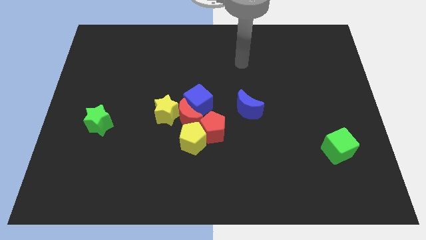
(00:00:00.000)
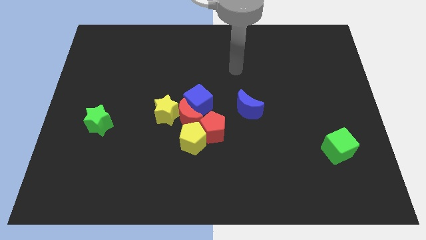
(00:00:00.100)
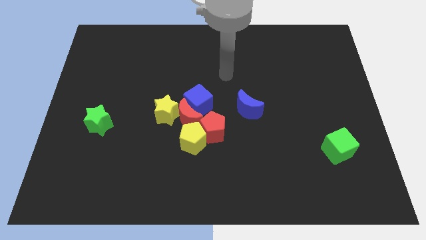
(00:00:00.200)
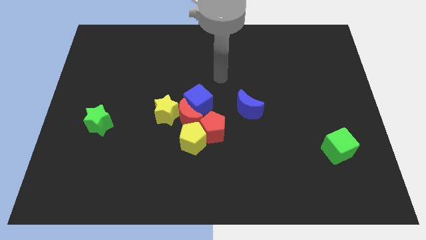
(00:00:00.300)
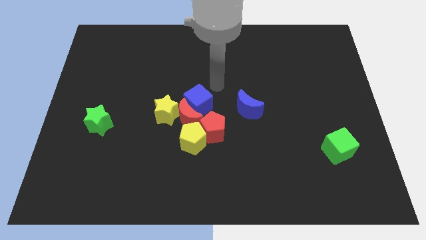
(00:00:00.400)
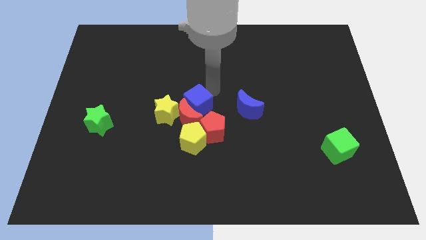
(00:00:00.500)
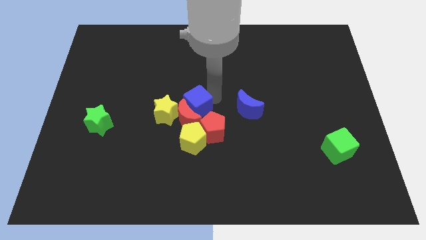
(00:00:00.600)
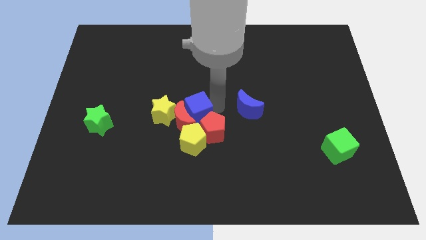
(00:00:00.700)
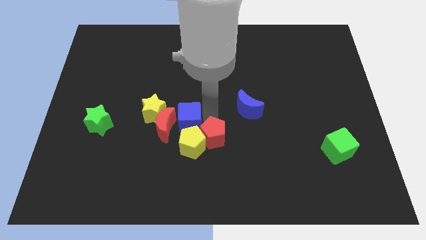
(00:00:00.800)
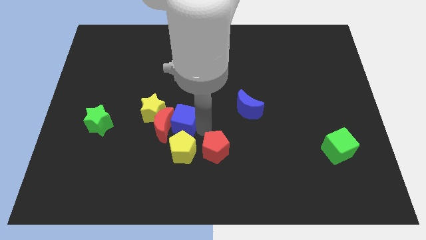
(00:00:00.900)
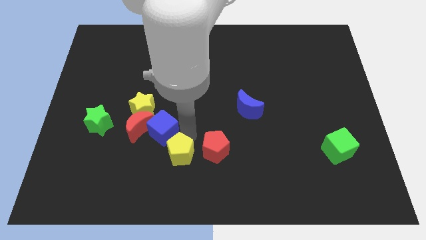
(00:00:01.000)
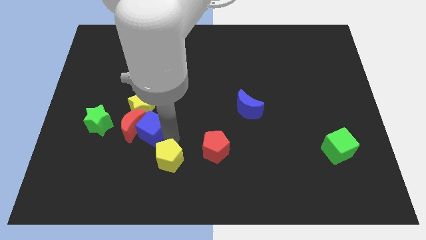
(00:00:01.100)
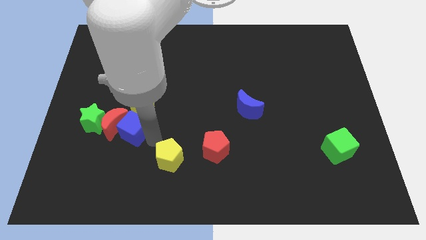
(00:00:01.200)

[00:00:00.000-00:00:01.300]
separate the red moon from the group of blocks

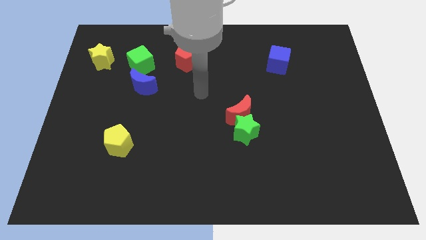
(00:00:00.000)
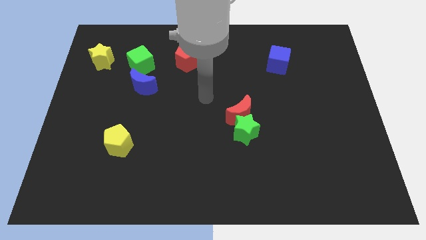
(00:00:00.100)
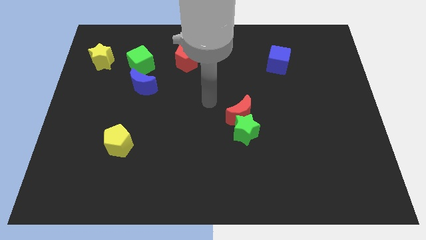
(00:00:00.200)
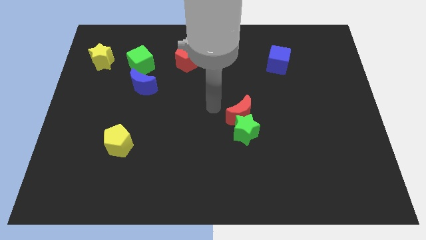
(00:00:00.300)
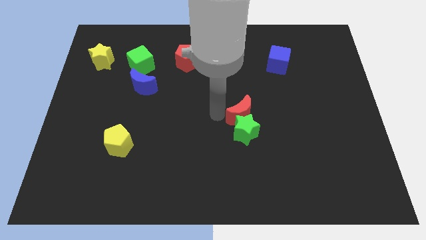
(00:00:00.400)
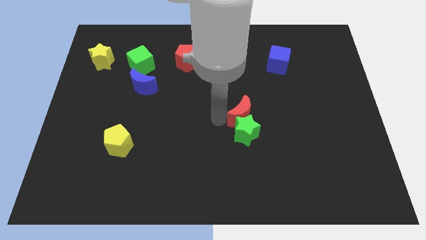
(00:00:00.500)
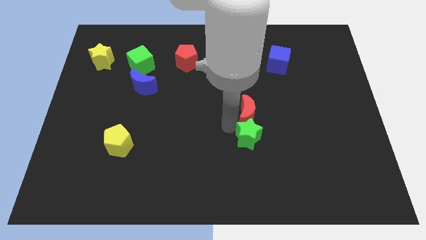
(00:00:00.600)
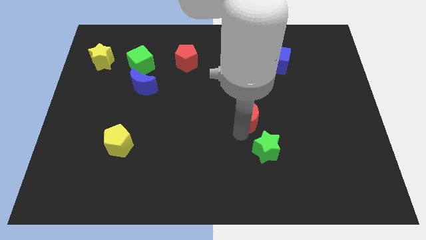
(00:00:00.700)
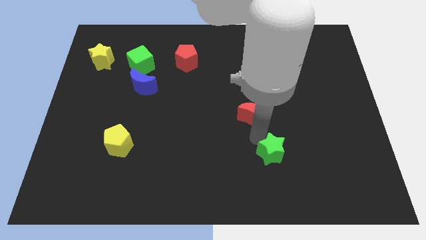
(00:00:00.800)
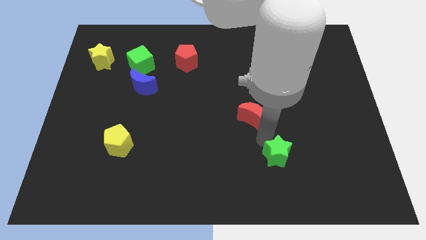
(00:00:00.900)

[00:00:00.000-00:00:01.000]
separate the red moon from the green star

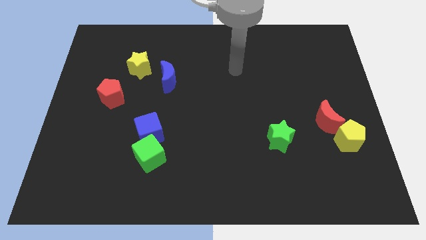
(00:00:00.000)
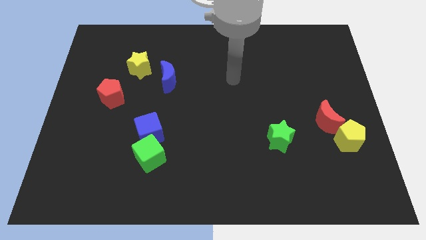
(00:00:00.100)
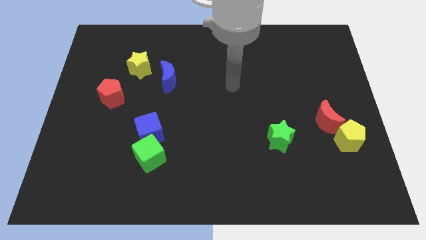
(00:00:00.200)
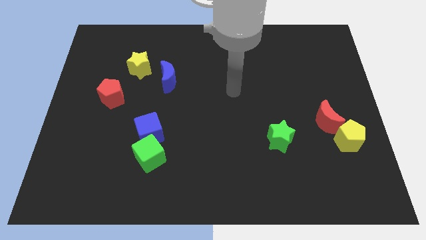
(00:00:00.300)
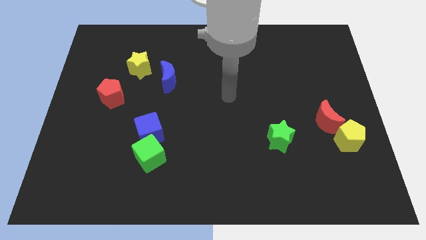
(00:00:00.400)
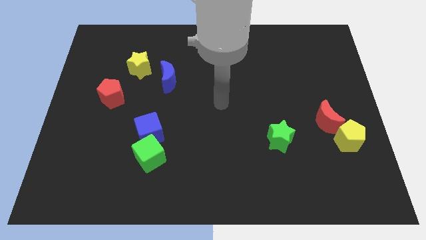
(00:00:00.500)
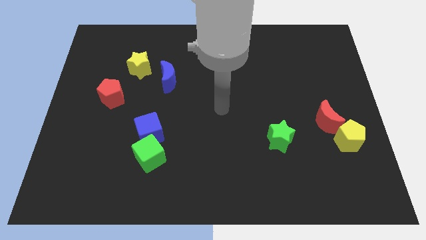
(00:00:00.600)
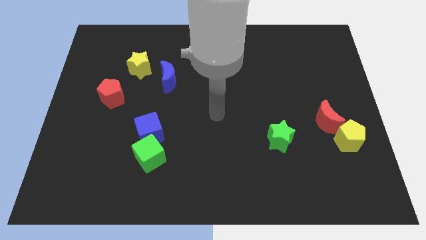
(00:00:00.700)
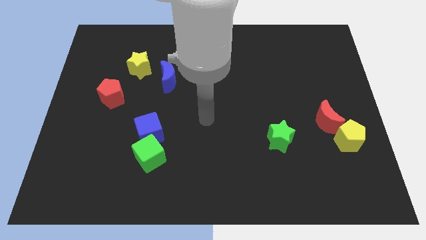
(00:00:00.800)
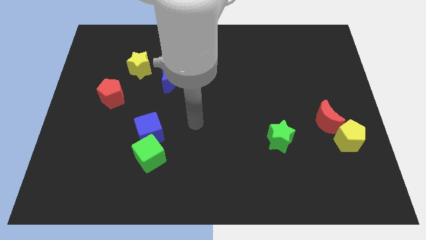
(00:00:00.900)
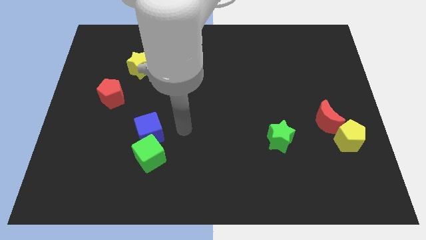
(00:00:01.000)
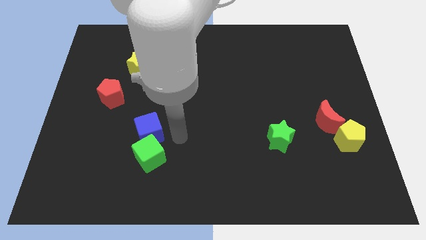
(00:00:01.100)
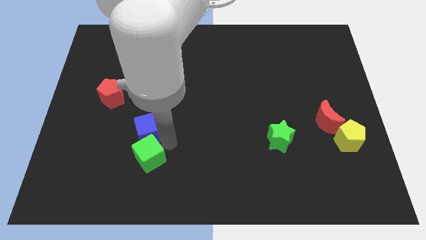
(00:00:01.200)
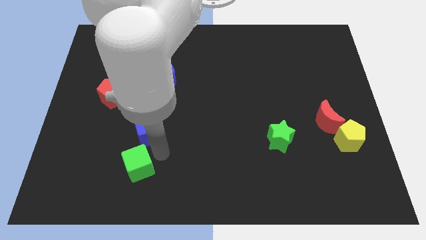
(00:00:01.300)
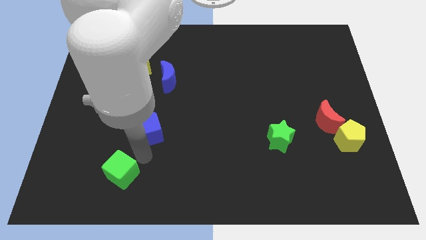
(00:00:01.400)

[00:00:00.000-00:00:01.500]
separate the blue cube from the green cube

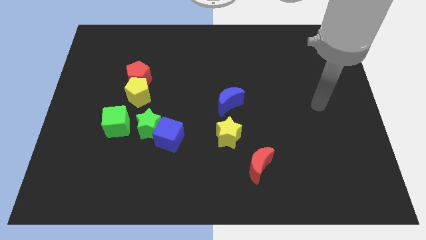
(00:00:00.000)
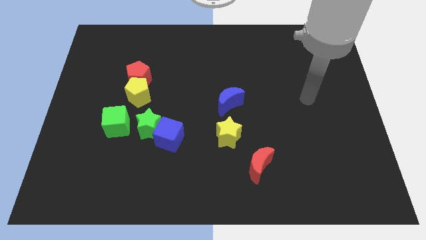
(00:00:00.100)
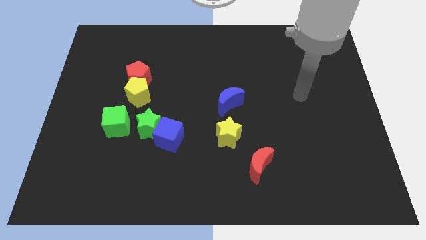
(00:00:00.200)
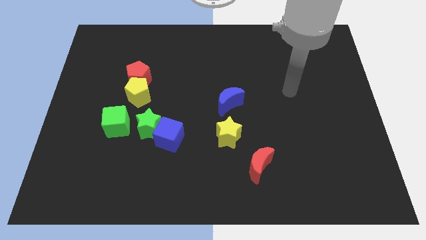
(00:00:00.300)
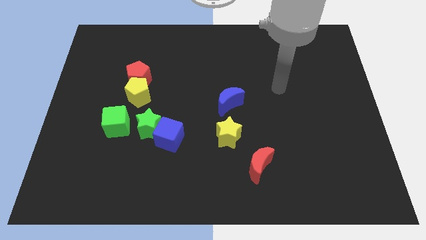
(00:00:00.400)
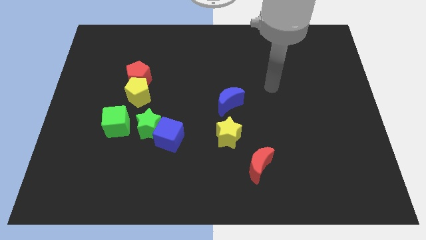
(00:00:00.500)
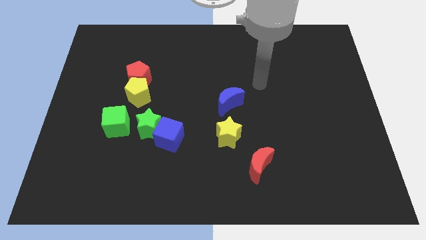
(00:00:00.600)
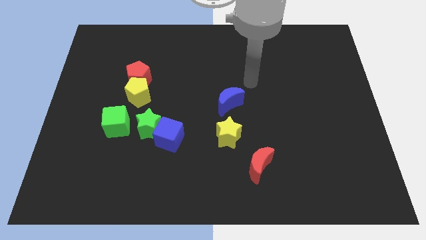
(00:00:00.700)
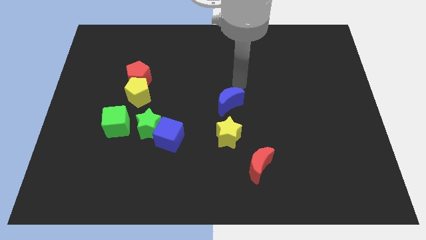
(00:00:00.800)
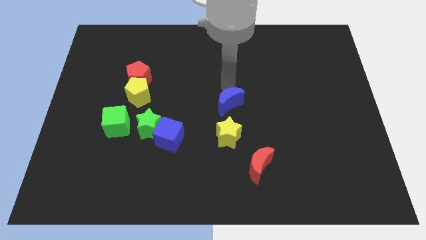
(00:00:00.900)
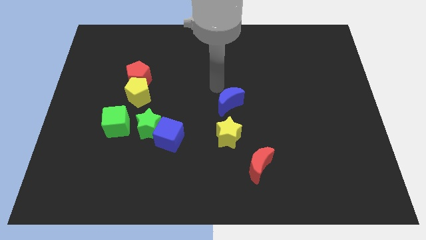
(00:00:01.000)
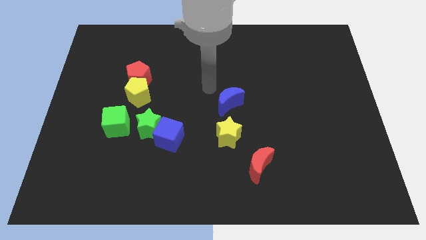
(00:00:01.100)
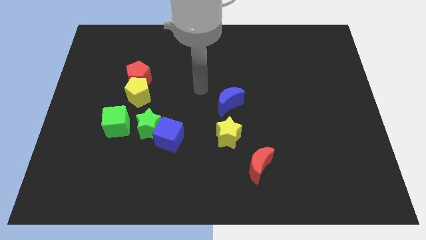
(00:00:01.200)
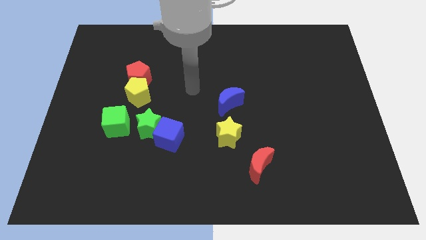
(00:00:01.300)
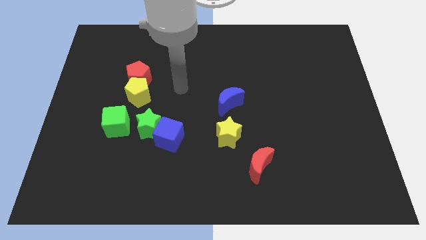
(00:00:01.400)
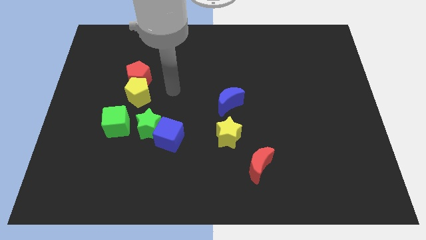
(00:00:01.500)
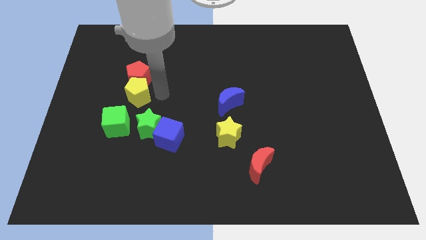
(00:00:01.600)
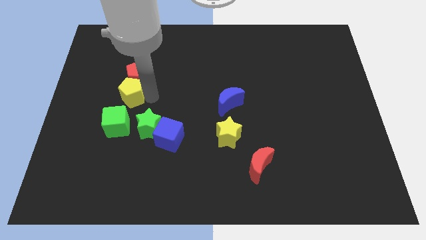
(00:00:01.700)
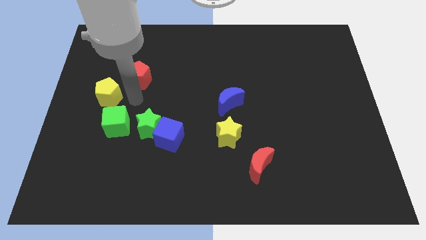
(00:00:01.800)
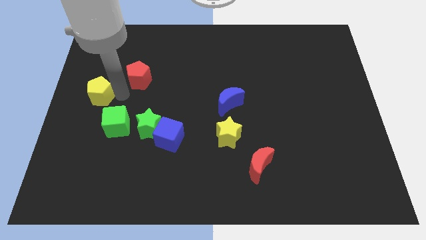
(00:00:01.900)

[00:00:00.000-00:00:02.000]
move the red pentagon away from the yellow pentagon

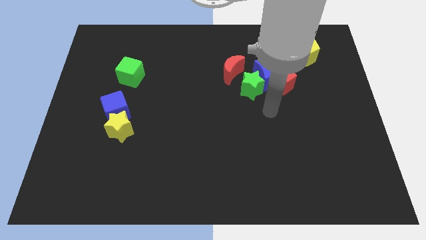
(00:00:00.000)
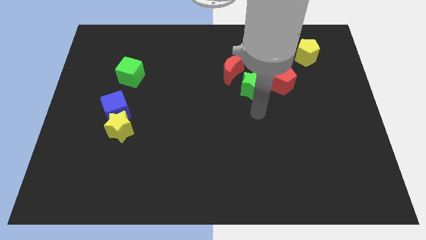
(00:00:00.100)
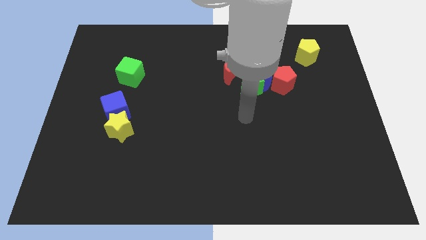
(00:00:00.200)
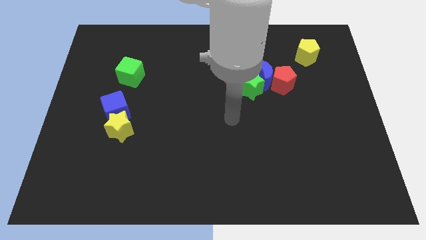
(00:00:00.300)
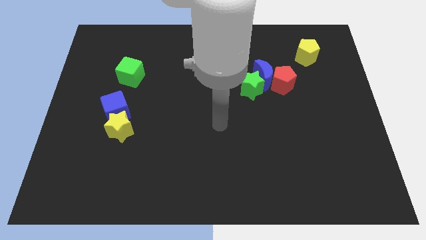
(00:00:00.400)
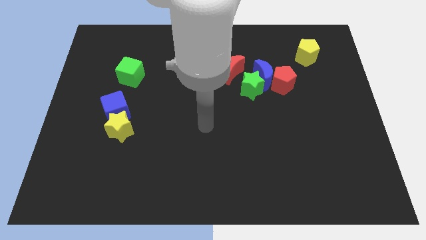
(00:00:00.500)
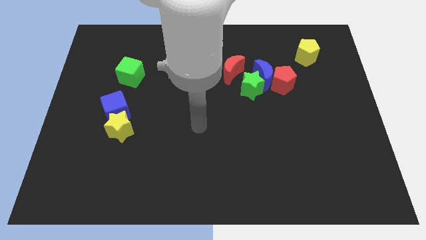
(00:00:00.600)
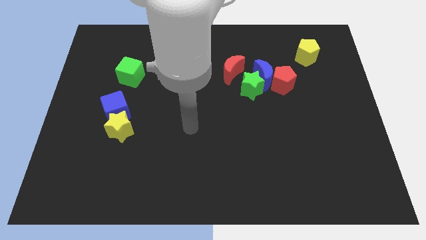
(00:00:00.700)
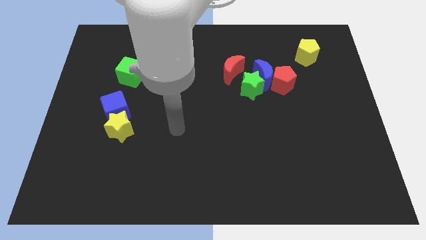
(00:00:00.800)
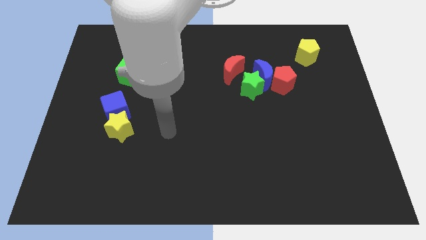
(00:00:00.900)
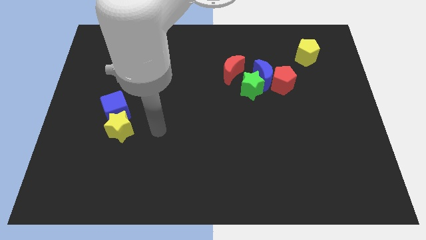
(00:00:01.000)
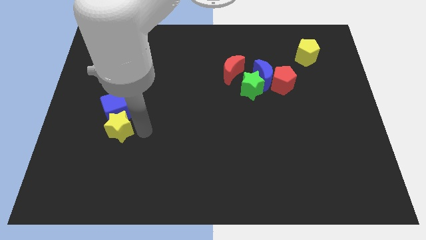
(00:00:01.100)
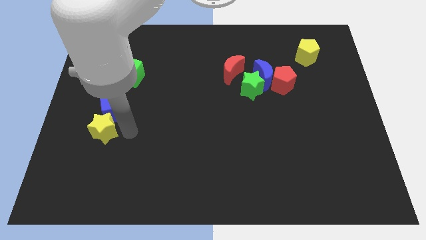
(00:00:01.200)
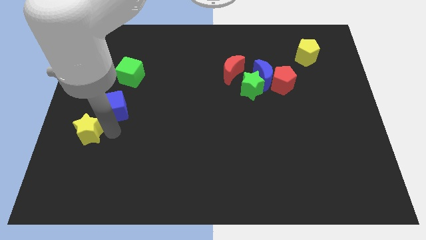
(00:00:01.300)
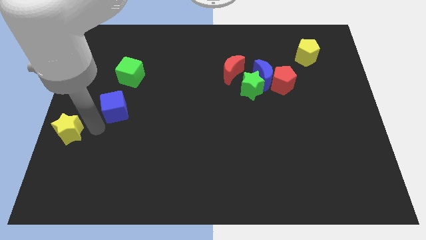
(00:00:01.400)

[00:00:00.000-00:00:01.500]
separate the blue cube from the yellow star

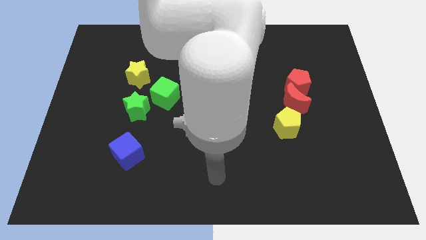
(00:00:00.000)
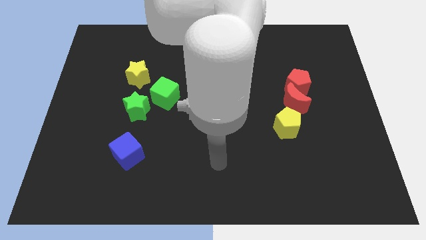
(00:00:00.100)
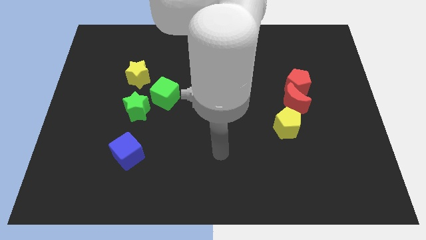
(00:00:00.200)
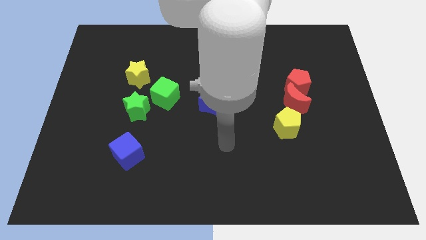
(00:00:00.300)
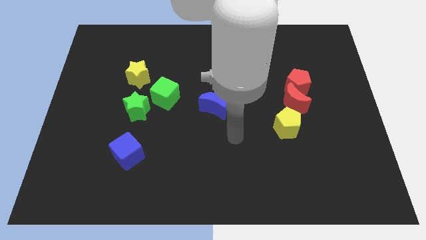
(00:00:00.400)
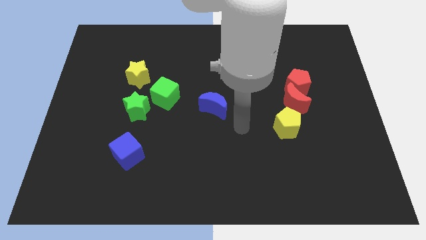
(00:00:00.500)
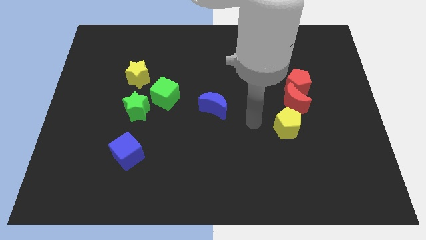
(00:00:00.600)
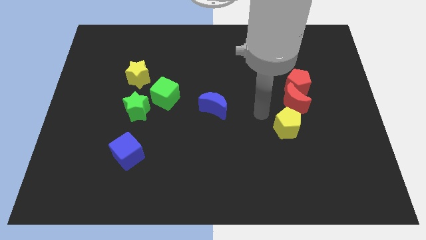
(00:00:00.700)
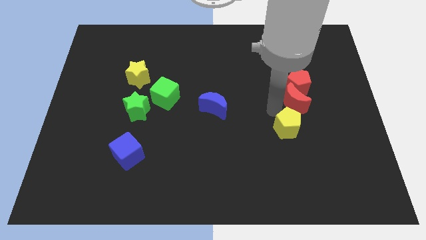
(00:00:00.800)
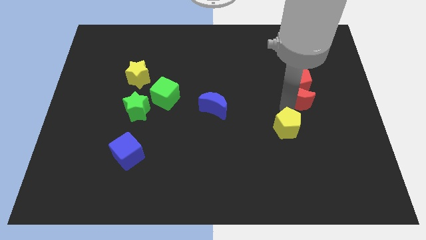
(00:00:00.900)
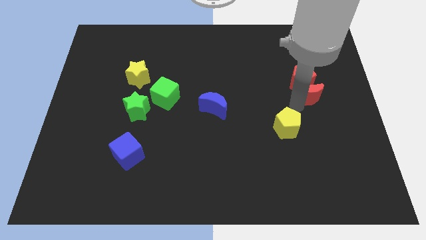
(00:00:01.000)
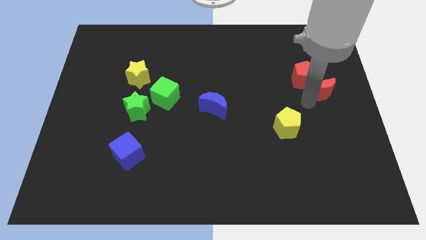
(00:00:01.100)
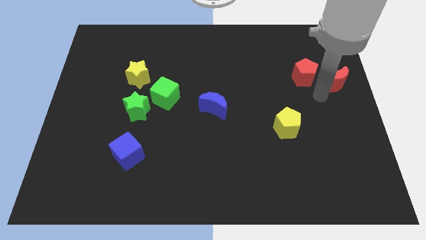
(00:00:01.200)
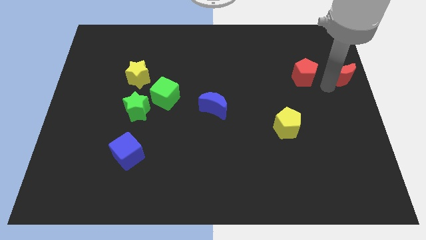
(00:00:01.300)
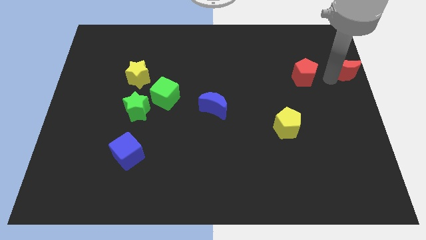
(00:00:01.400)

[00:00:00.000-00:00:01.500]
separate the red pentagon from the red moon

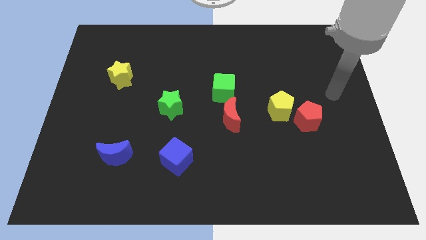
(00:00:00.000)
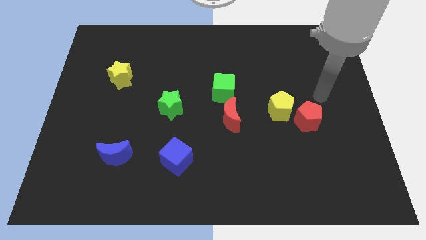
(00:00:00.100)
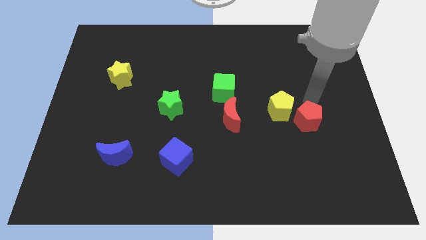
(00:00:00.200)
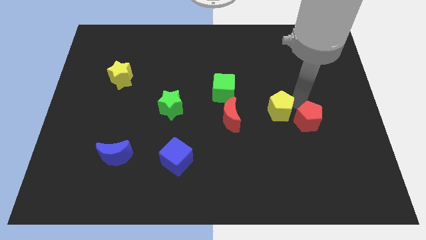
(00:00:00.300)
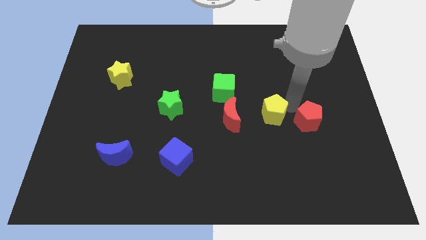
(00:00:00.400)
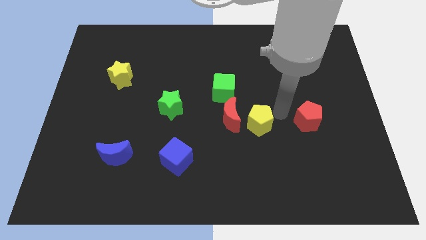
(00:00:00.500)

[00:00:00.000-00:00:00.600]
separate the red pentagon from the yellow pentagon
